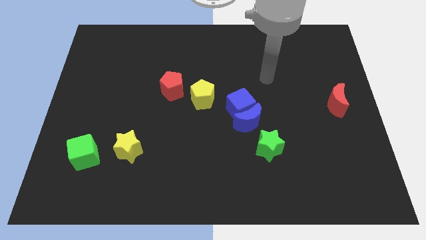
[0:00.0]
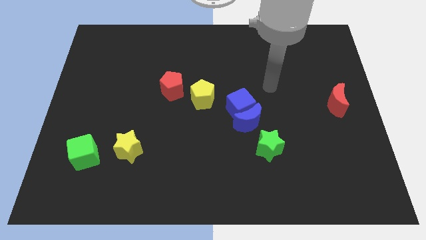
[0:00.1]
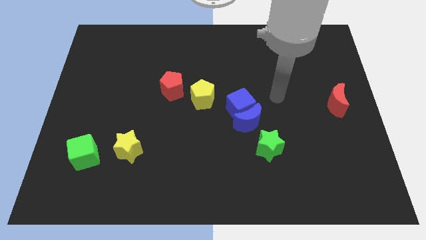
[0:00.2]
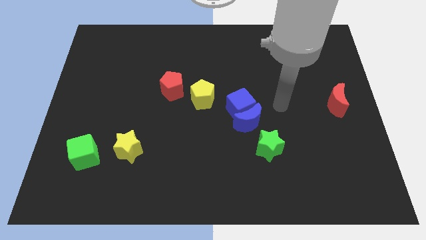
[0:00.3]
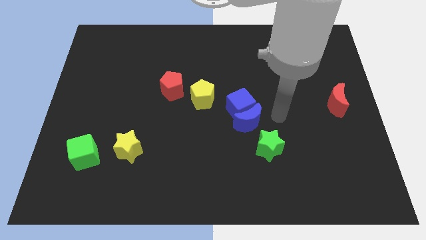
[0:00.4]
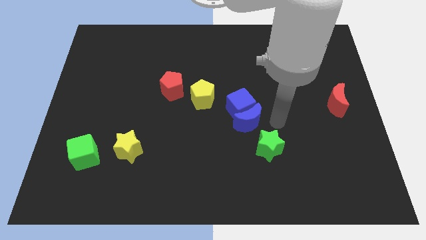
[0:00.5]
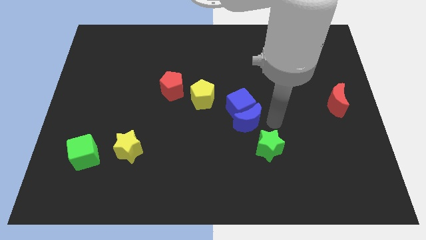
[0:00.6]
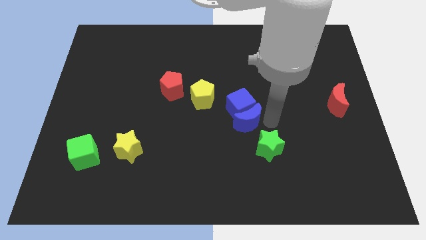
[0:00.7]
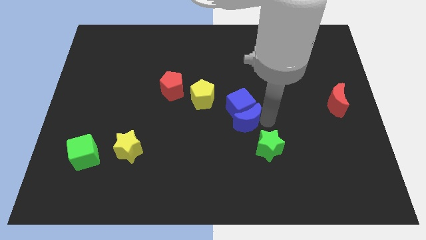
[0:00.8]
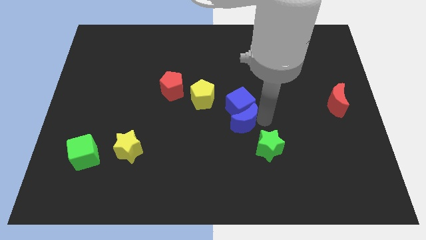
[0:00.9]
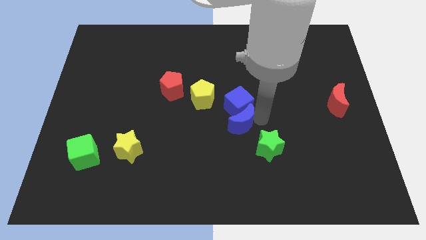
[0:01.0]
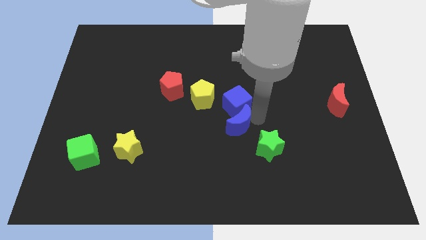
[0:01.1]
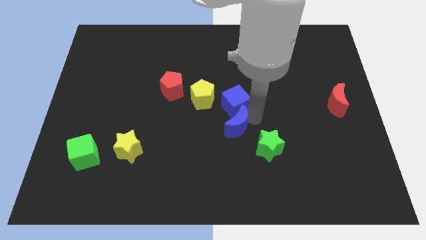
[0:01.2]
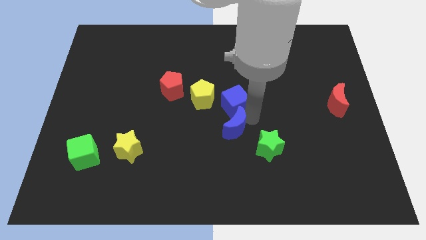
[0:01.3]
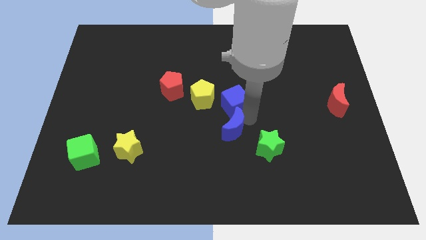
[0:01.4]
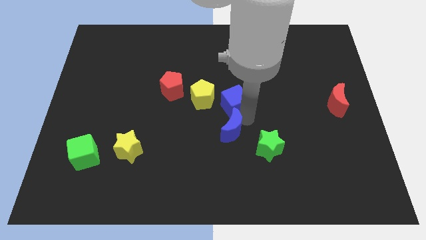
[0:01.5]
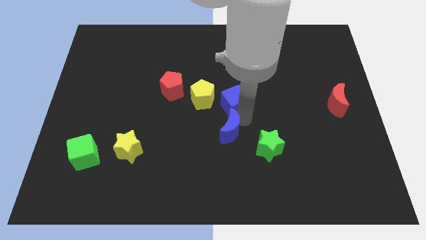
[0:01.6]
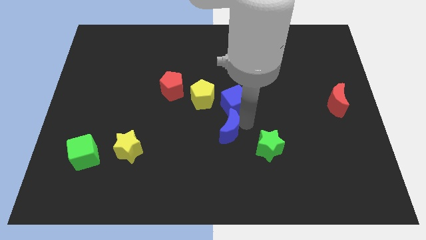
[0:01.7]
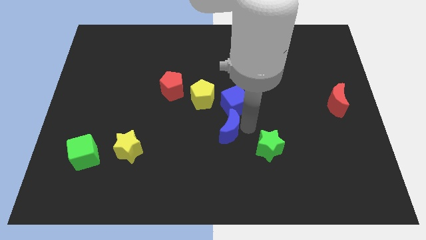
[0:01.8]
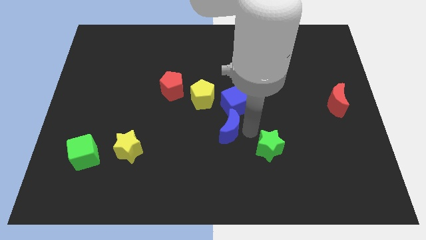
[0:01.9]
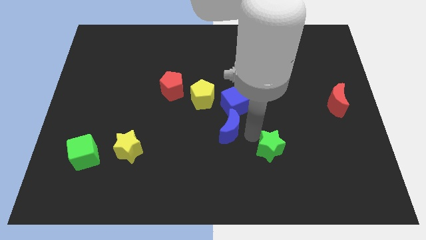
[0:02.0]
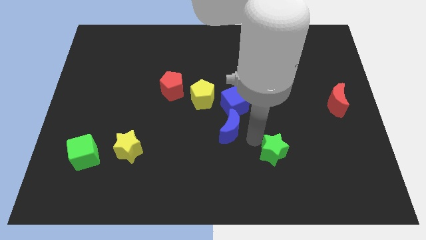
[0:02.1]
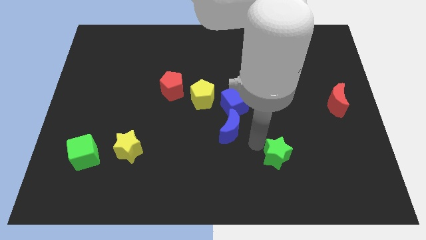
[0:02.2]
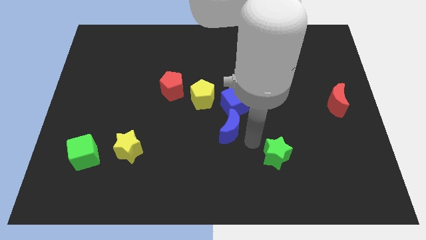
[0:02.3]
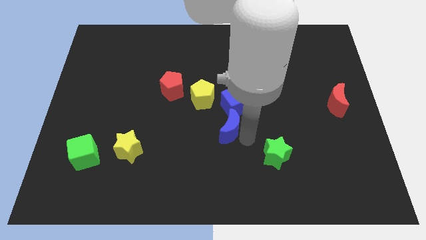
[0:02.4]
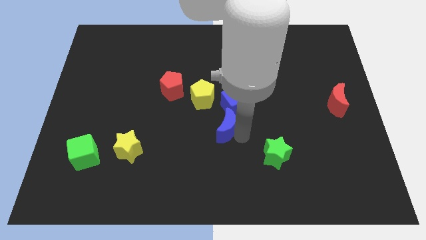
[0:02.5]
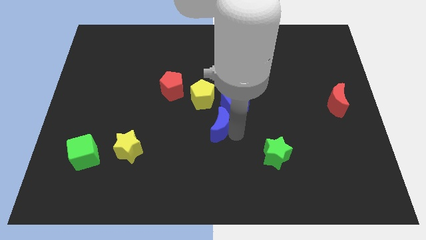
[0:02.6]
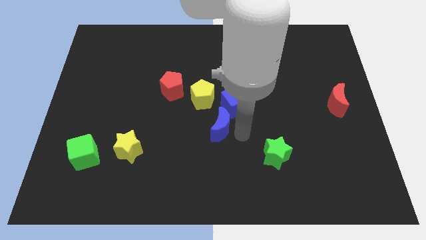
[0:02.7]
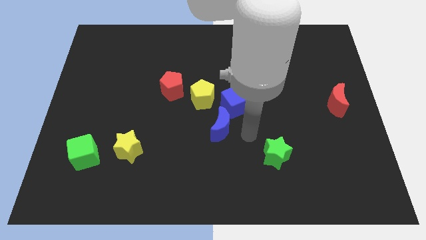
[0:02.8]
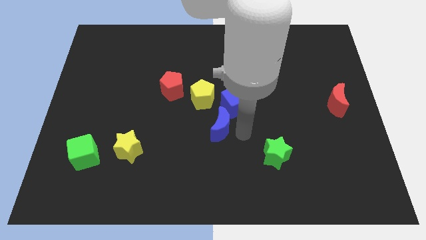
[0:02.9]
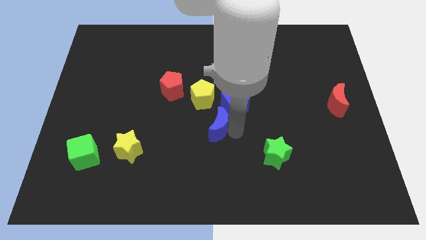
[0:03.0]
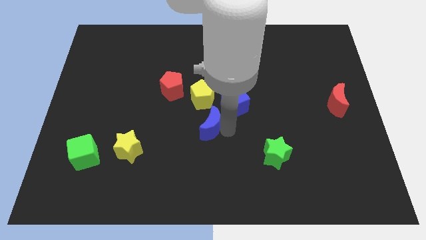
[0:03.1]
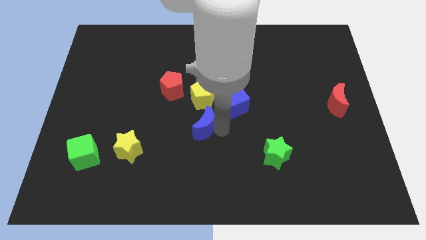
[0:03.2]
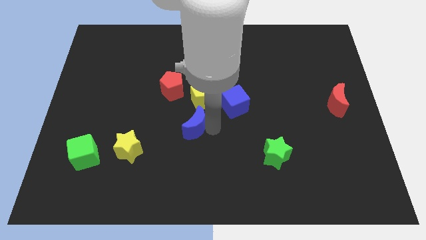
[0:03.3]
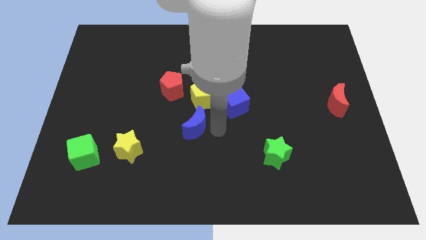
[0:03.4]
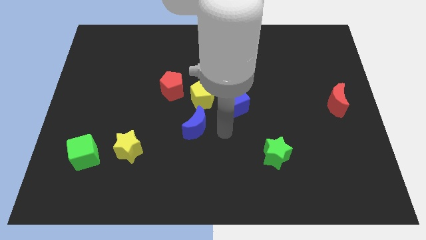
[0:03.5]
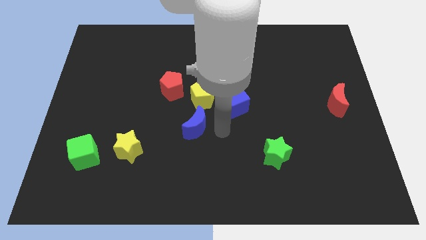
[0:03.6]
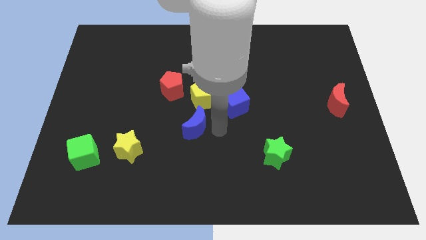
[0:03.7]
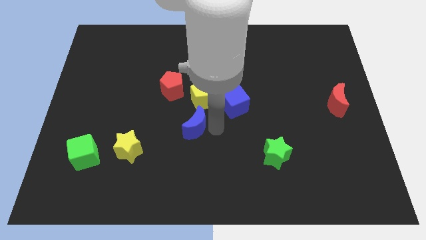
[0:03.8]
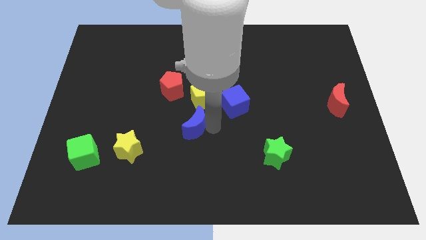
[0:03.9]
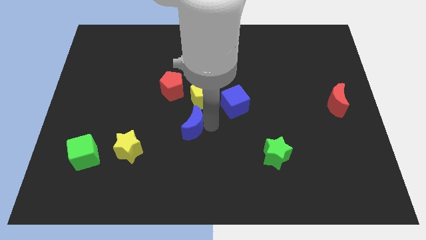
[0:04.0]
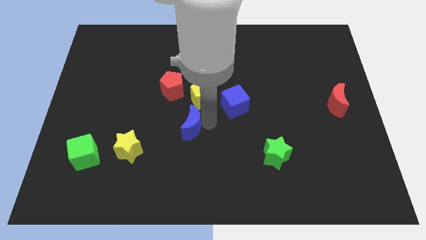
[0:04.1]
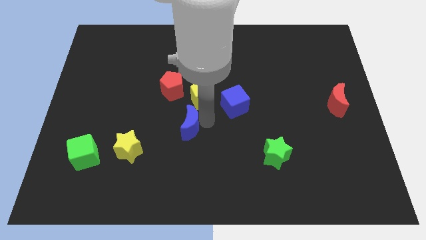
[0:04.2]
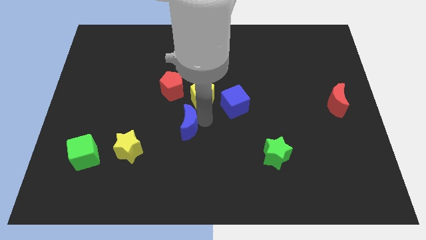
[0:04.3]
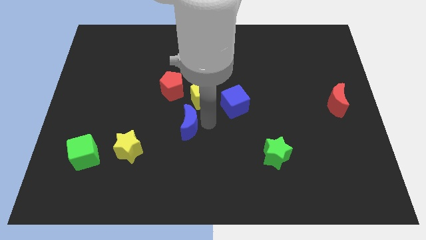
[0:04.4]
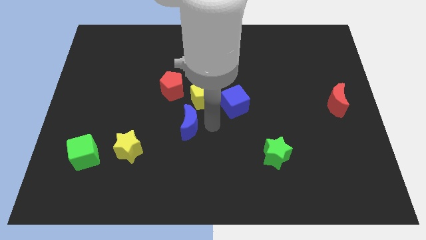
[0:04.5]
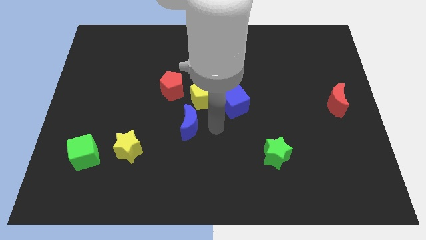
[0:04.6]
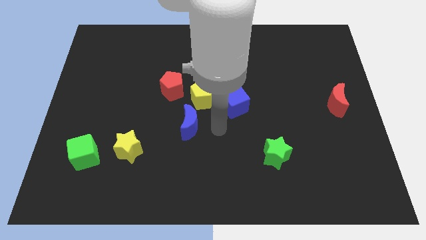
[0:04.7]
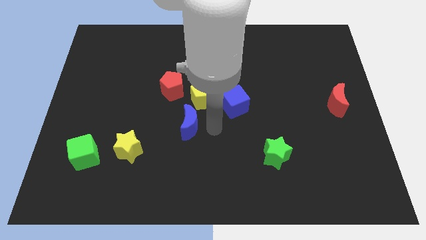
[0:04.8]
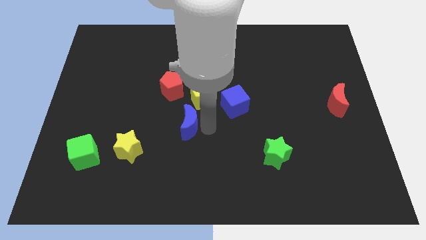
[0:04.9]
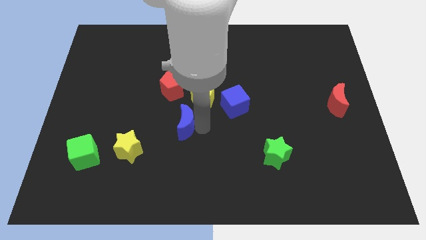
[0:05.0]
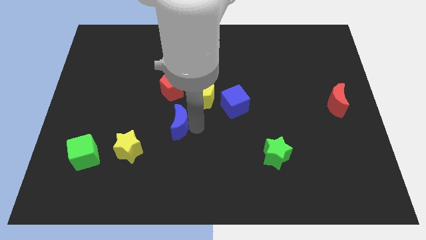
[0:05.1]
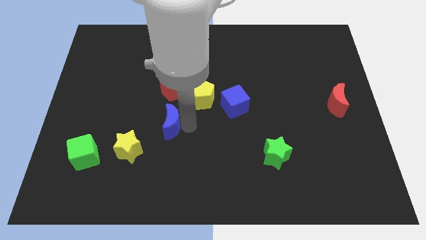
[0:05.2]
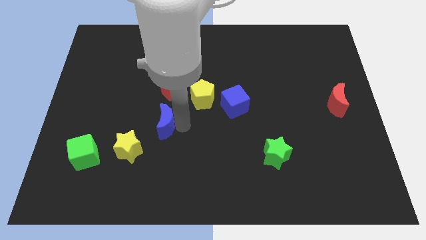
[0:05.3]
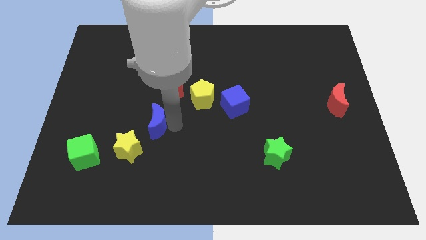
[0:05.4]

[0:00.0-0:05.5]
push the blue moon left

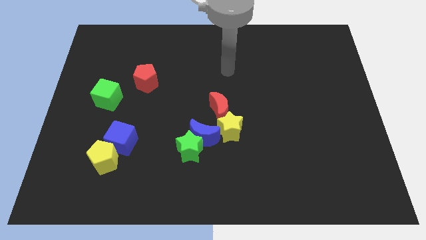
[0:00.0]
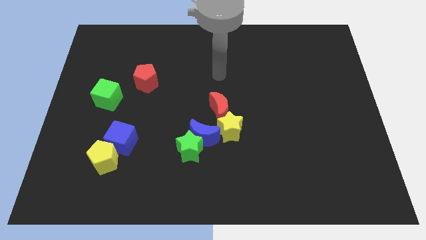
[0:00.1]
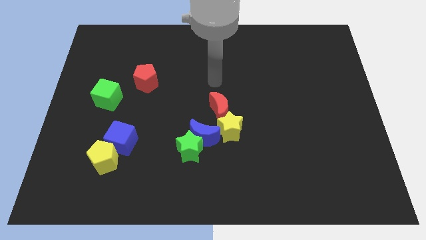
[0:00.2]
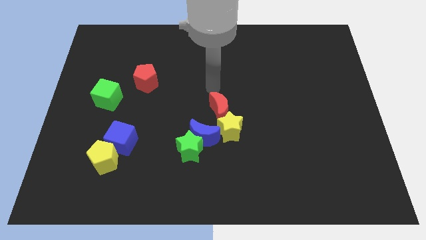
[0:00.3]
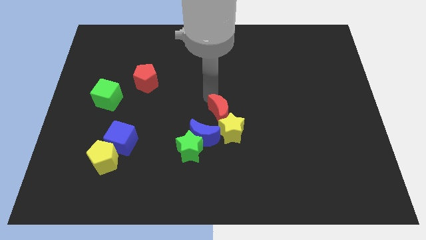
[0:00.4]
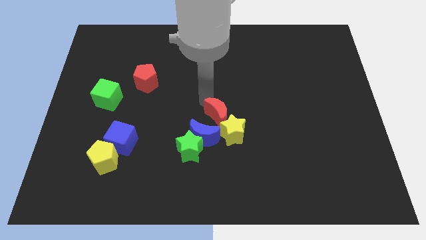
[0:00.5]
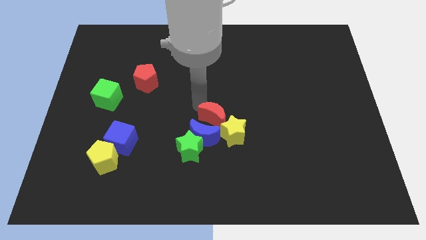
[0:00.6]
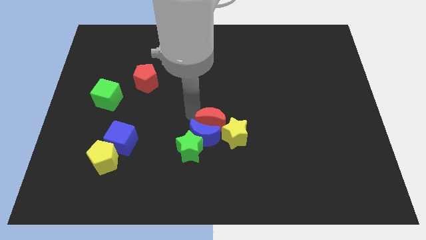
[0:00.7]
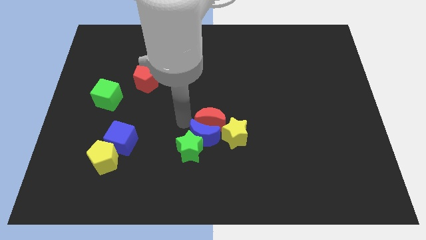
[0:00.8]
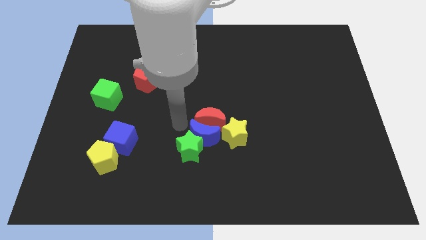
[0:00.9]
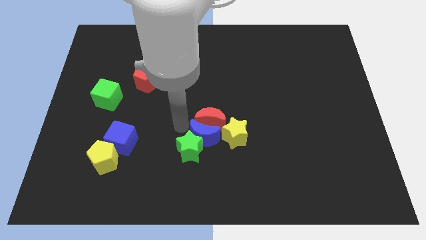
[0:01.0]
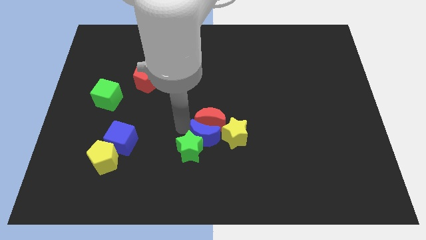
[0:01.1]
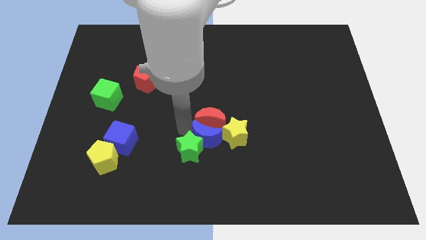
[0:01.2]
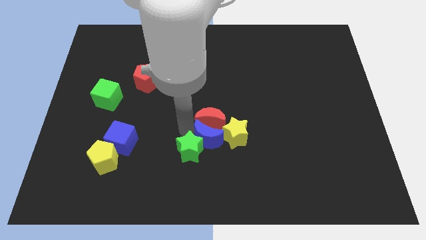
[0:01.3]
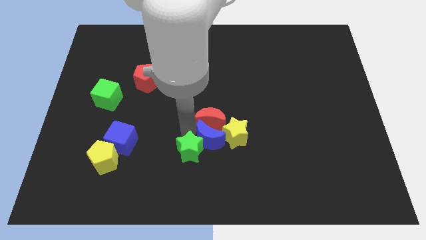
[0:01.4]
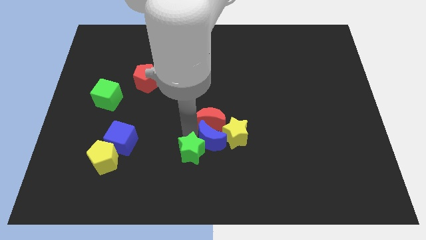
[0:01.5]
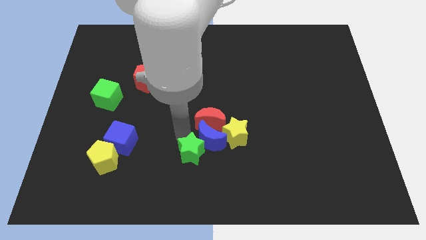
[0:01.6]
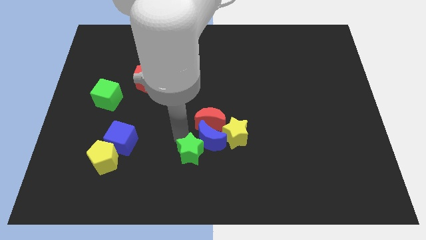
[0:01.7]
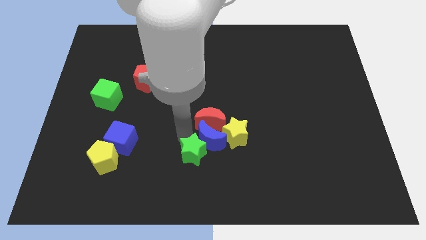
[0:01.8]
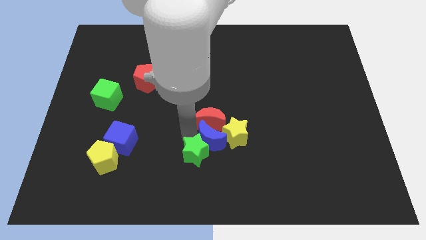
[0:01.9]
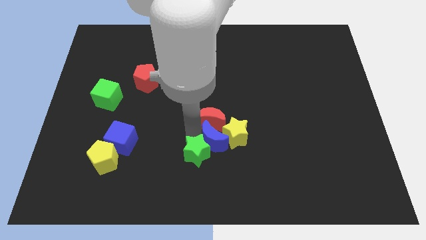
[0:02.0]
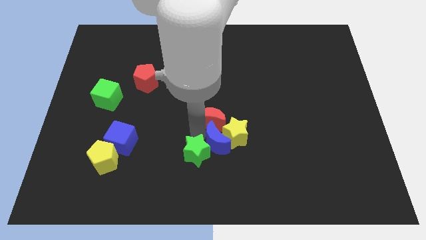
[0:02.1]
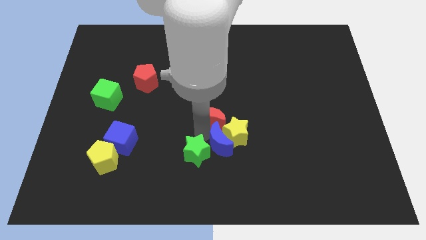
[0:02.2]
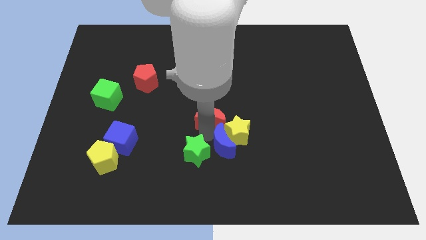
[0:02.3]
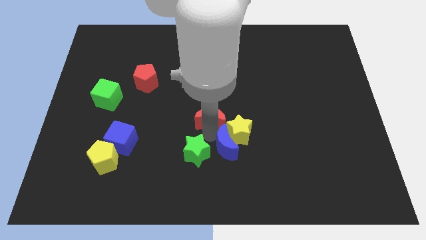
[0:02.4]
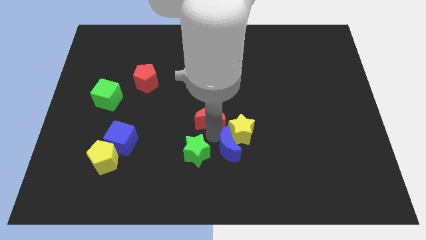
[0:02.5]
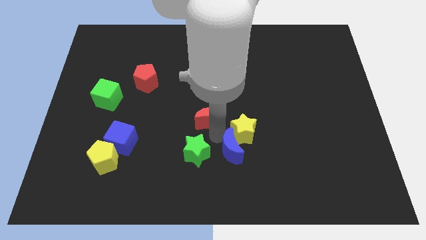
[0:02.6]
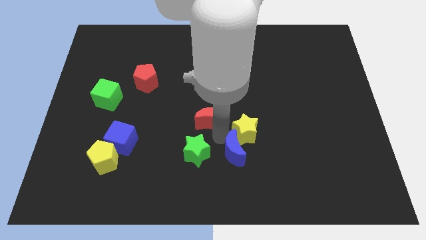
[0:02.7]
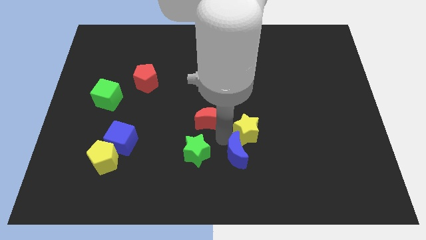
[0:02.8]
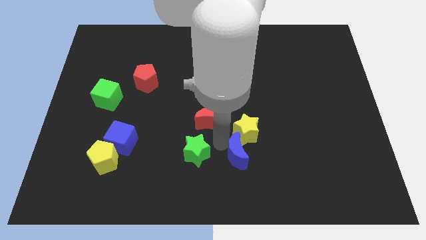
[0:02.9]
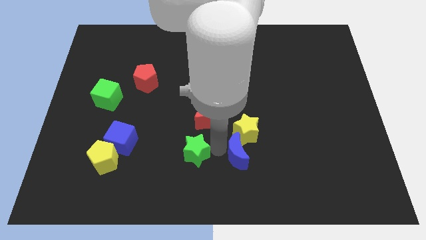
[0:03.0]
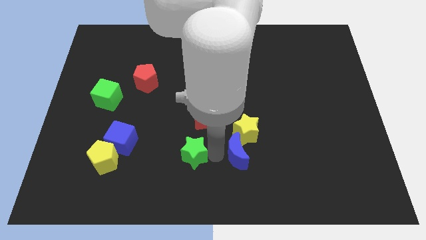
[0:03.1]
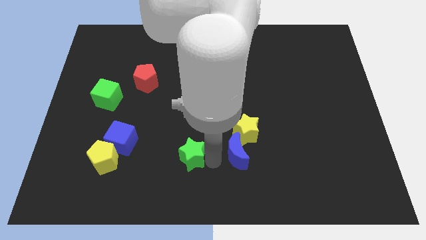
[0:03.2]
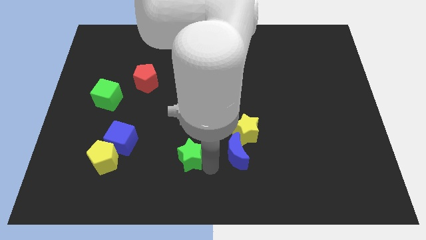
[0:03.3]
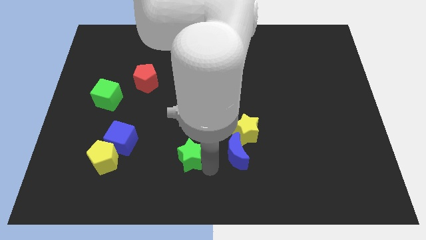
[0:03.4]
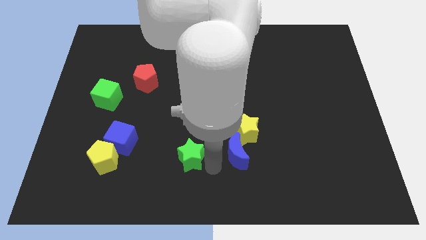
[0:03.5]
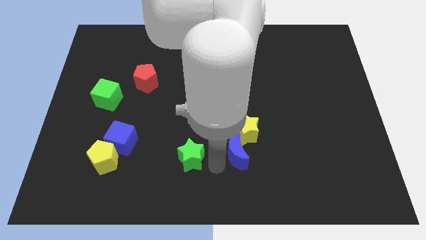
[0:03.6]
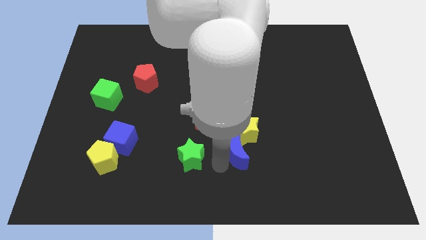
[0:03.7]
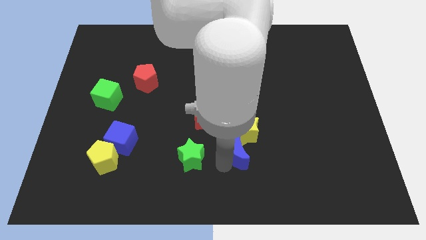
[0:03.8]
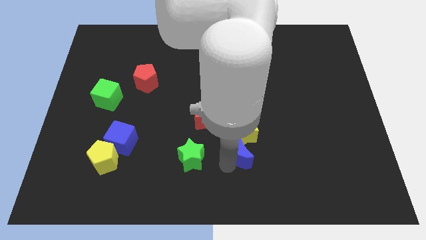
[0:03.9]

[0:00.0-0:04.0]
push the blue moon a little right
